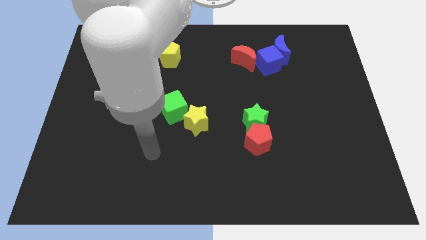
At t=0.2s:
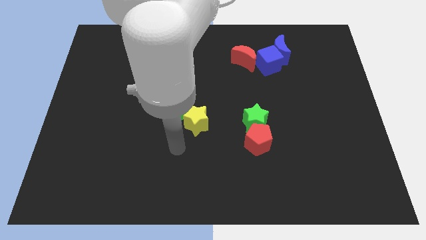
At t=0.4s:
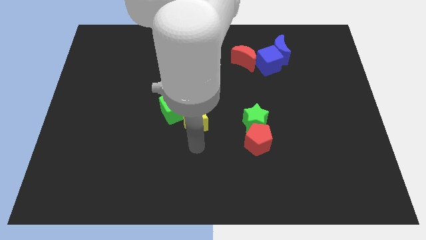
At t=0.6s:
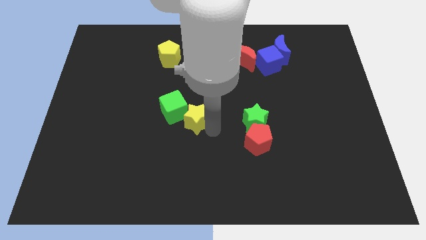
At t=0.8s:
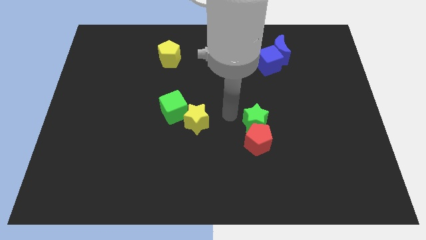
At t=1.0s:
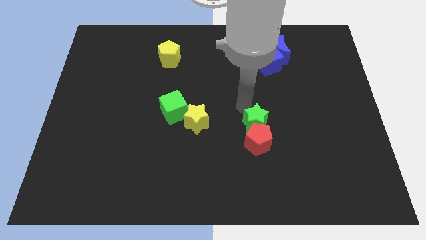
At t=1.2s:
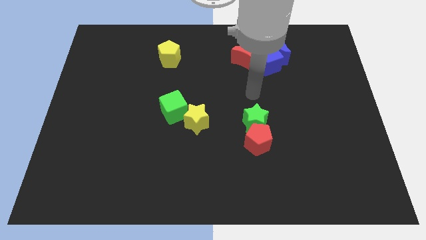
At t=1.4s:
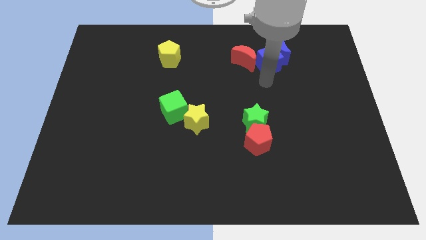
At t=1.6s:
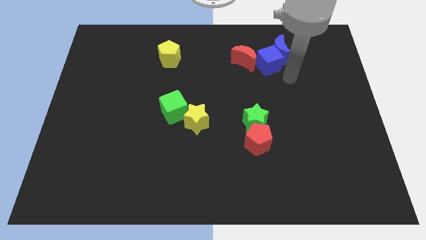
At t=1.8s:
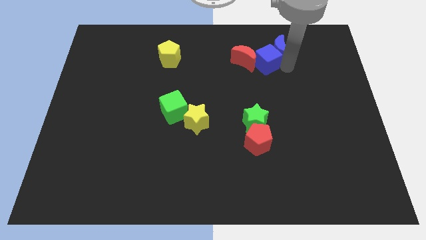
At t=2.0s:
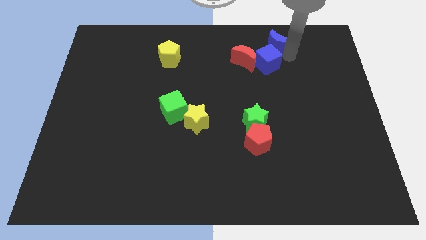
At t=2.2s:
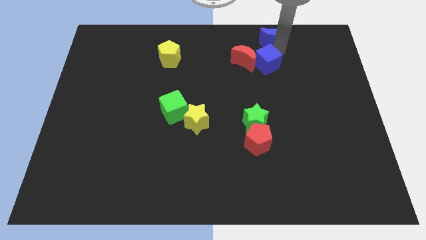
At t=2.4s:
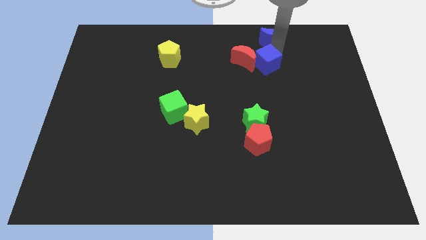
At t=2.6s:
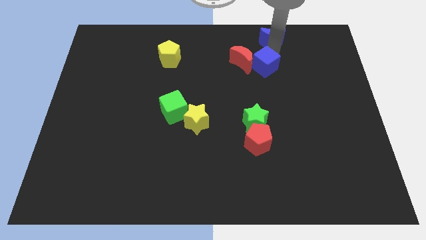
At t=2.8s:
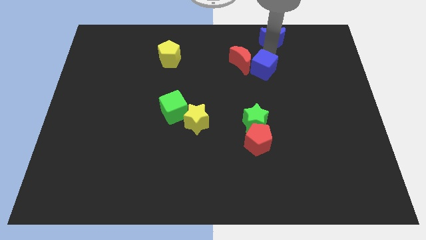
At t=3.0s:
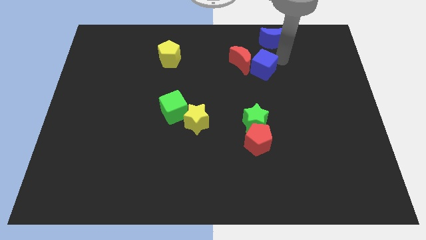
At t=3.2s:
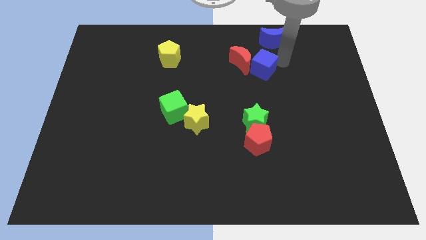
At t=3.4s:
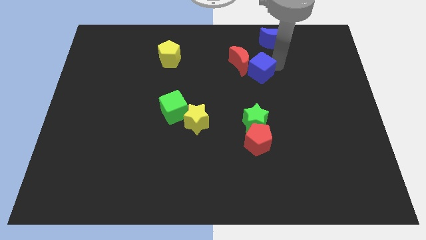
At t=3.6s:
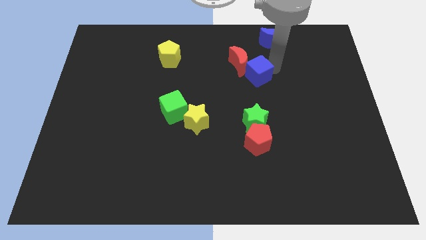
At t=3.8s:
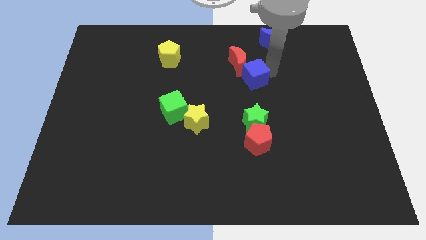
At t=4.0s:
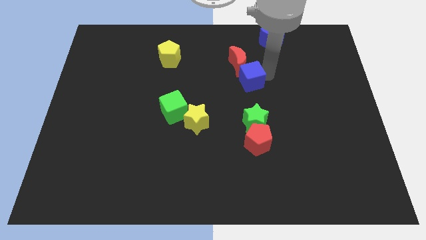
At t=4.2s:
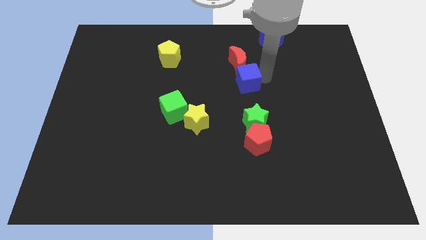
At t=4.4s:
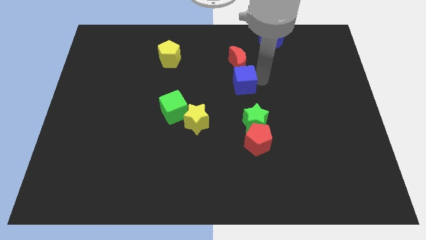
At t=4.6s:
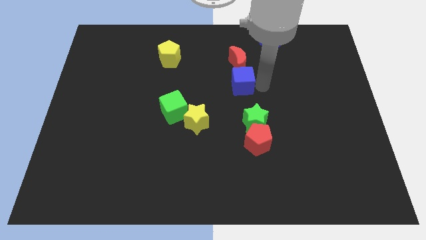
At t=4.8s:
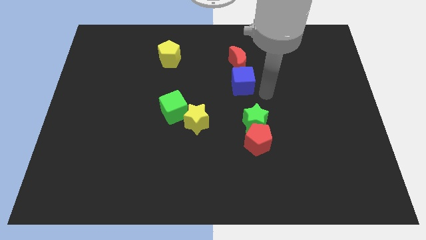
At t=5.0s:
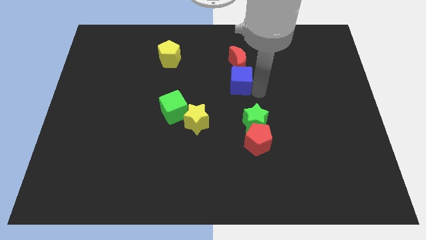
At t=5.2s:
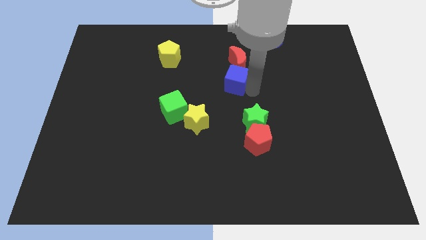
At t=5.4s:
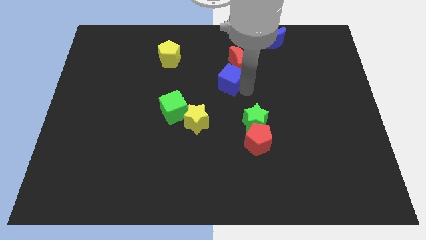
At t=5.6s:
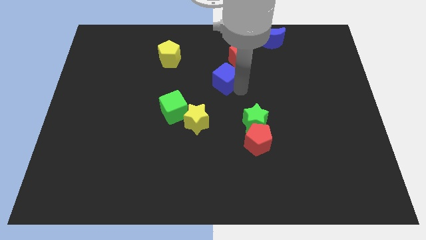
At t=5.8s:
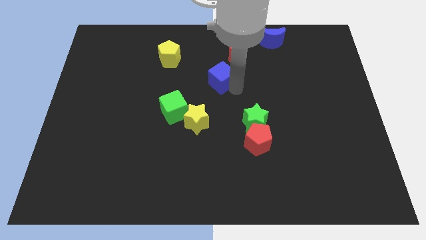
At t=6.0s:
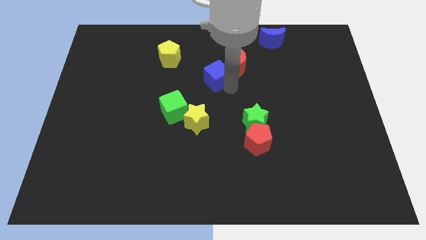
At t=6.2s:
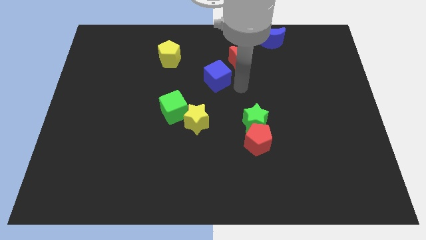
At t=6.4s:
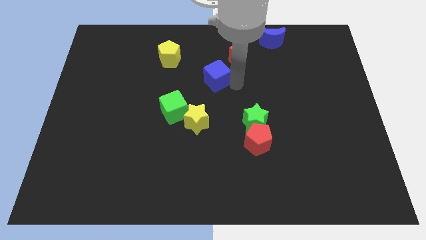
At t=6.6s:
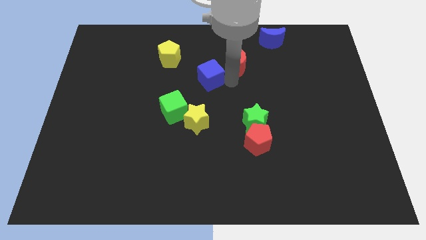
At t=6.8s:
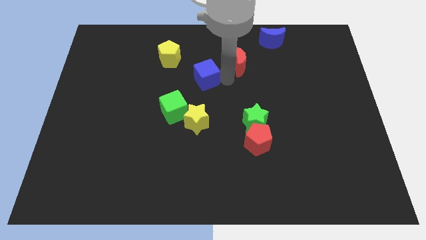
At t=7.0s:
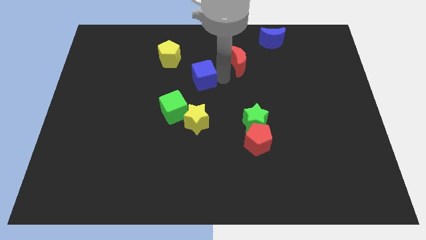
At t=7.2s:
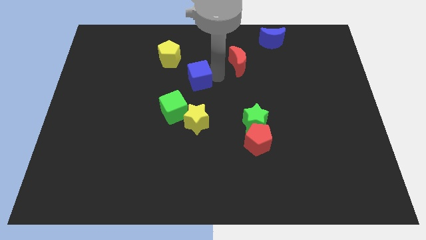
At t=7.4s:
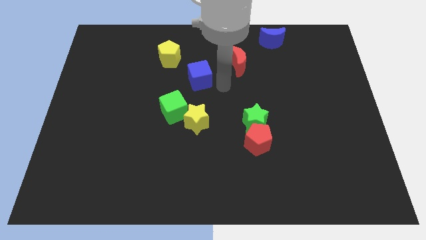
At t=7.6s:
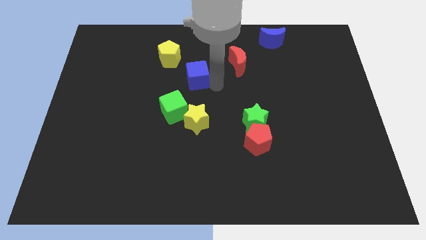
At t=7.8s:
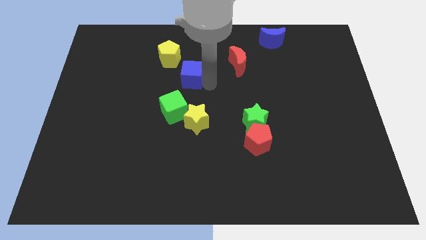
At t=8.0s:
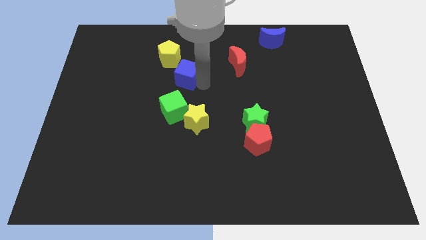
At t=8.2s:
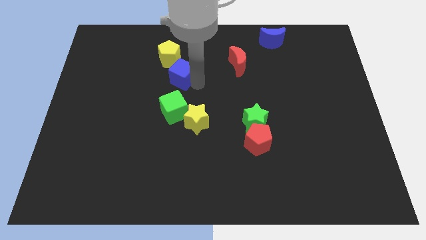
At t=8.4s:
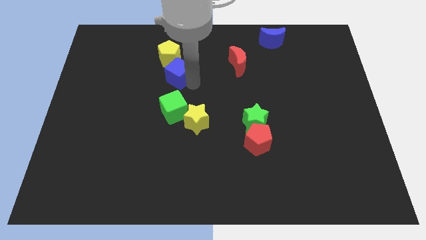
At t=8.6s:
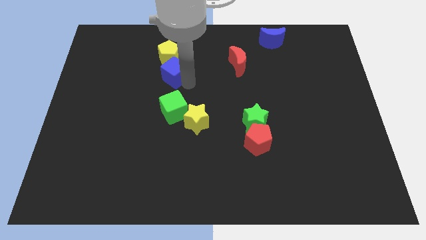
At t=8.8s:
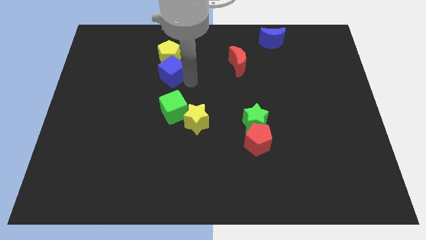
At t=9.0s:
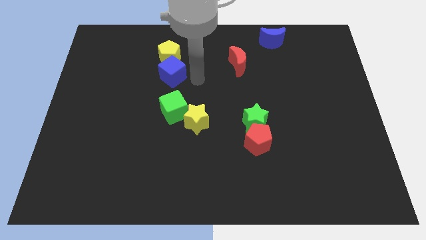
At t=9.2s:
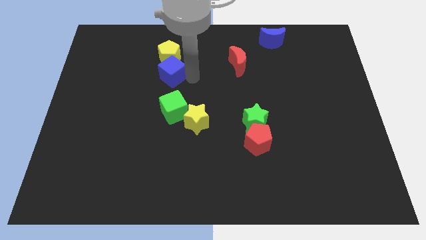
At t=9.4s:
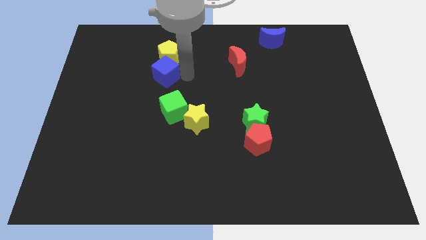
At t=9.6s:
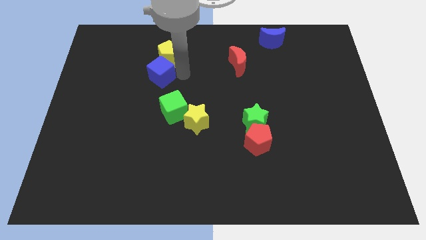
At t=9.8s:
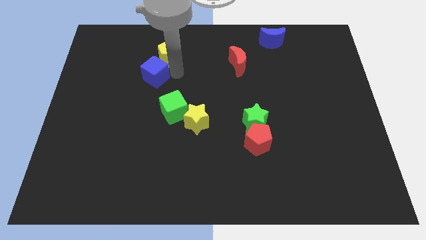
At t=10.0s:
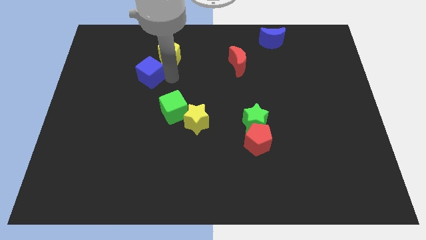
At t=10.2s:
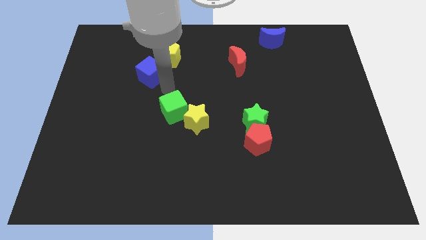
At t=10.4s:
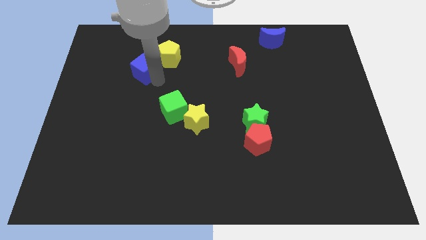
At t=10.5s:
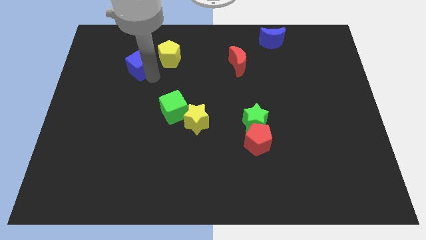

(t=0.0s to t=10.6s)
put the blue cube to the left of the yellow pentagon
